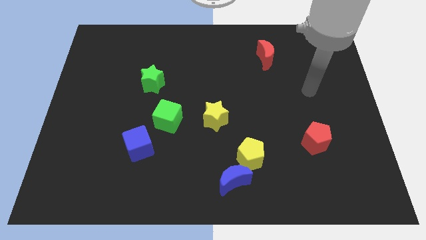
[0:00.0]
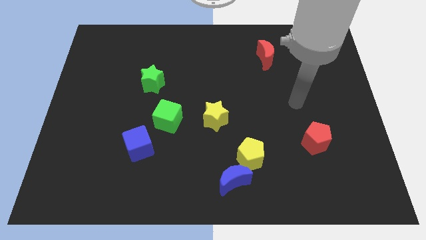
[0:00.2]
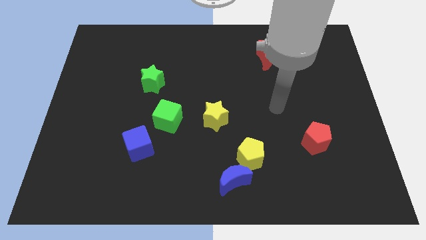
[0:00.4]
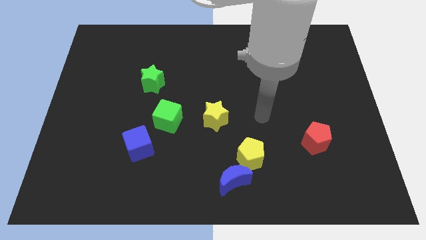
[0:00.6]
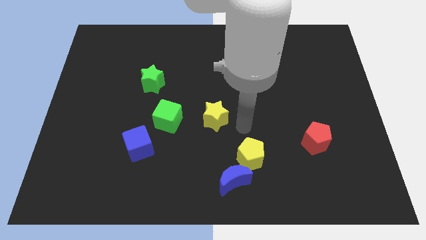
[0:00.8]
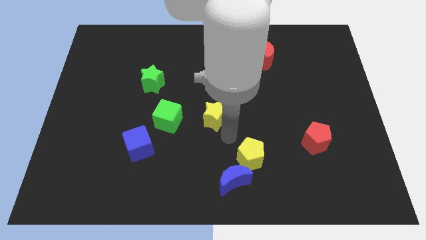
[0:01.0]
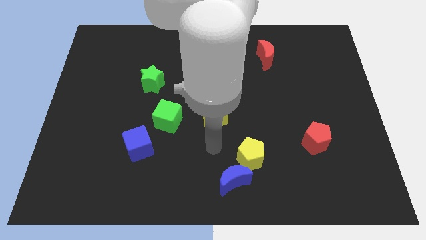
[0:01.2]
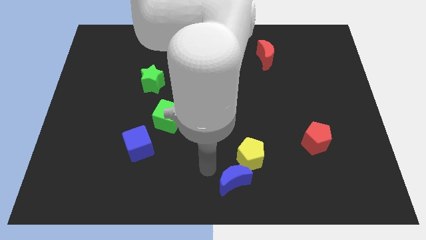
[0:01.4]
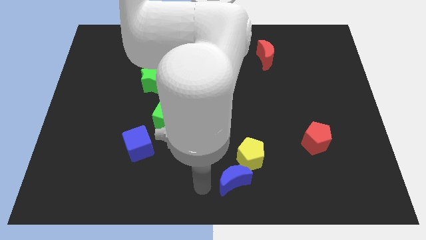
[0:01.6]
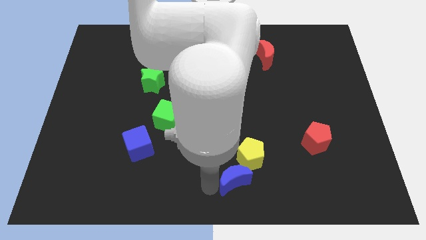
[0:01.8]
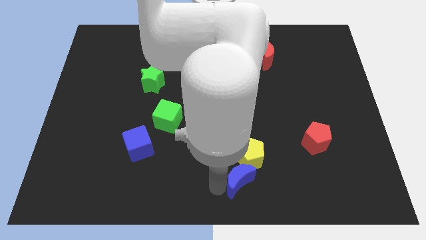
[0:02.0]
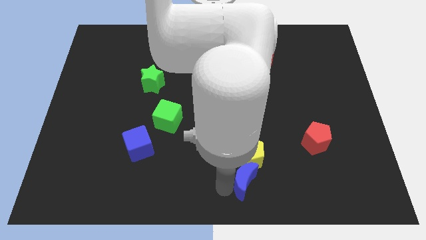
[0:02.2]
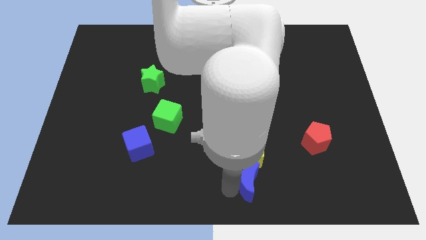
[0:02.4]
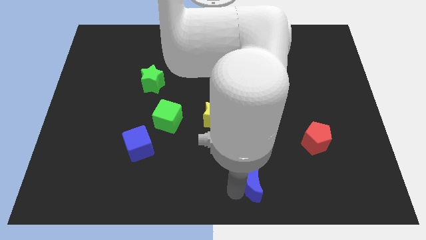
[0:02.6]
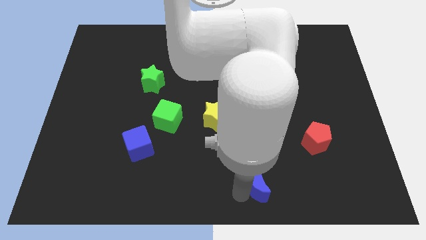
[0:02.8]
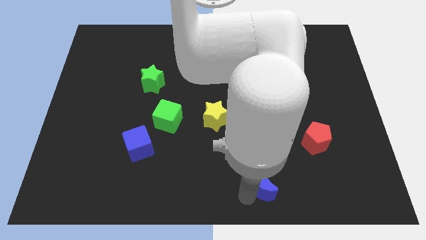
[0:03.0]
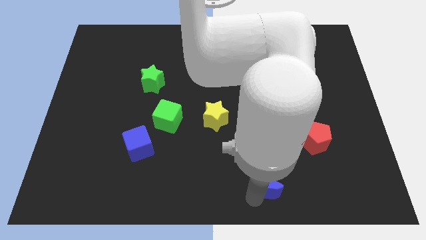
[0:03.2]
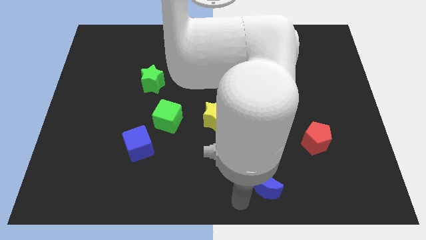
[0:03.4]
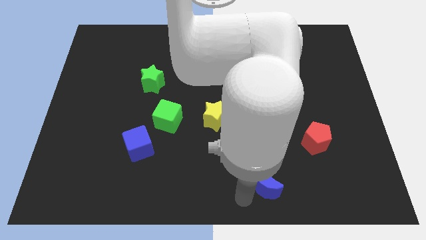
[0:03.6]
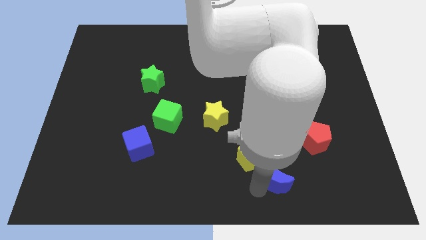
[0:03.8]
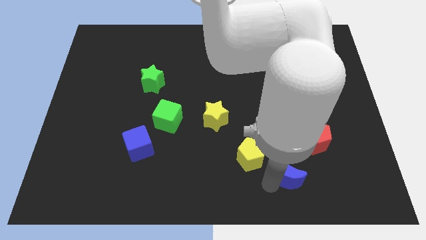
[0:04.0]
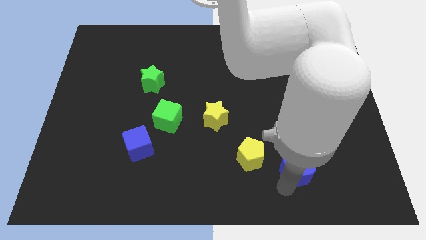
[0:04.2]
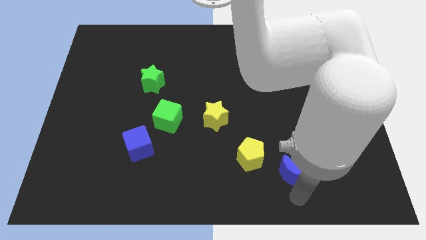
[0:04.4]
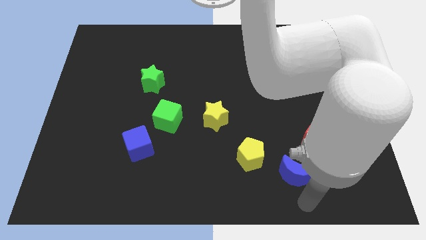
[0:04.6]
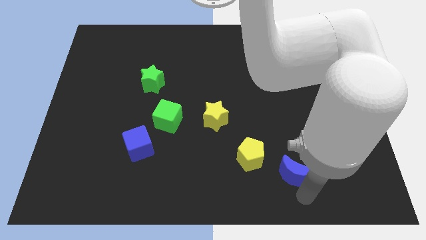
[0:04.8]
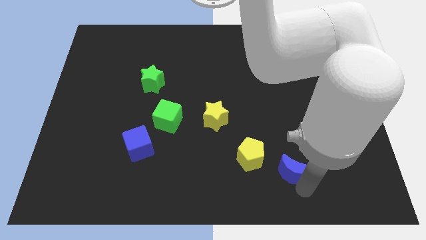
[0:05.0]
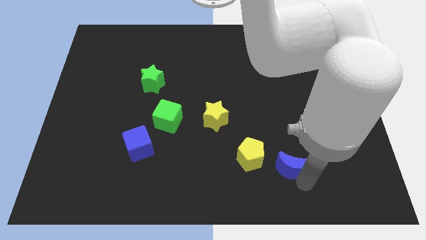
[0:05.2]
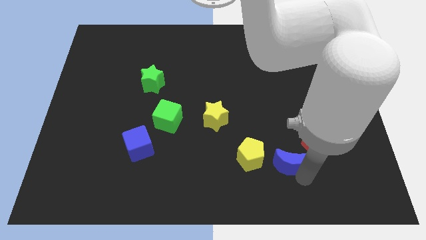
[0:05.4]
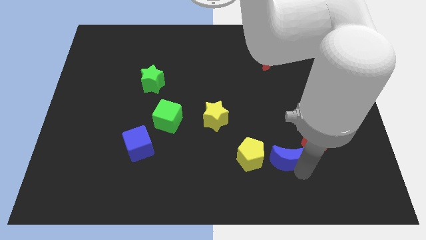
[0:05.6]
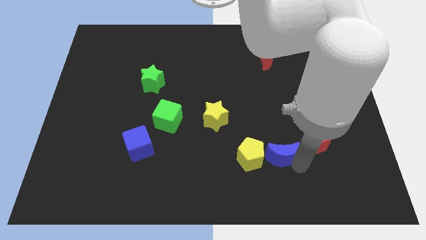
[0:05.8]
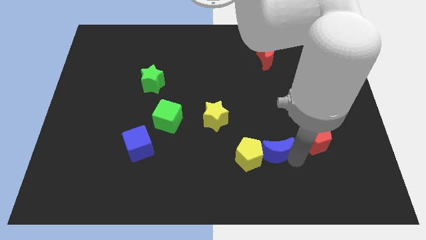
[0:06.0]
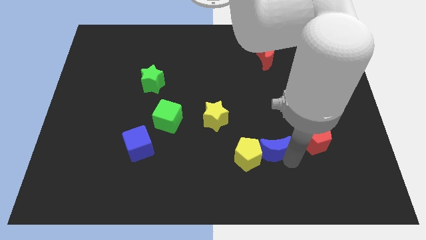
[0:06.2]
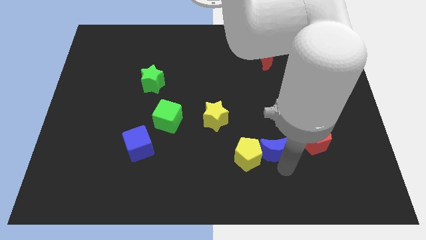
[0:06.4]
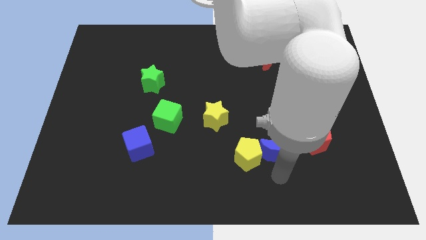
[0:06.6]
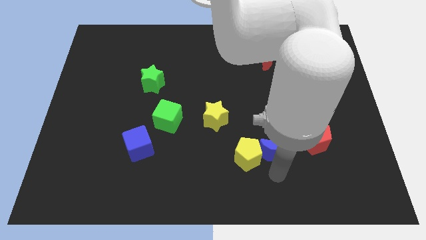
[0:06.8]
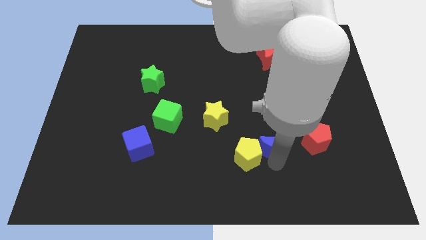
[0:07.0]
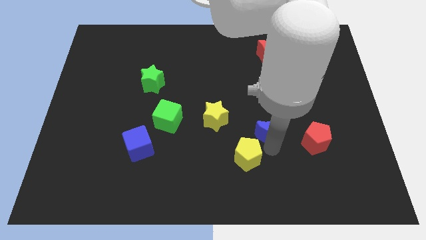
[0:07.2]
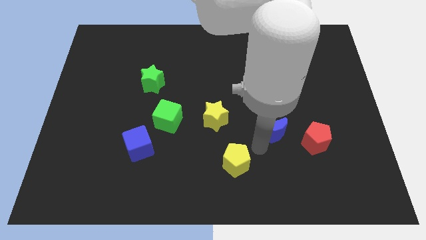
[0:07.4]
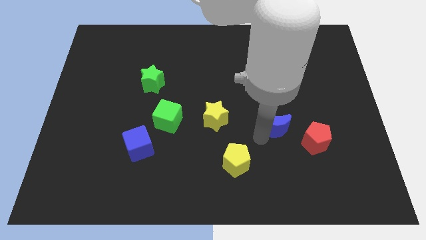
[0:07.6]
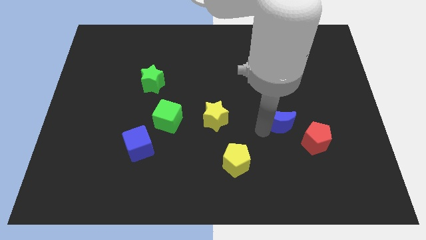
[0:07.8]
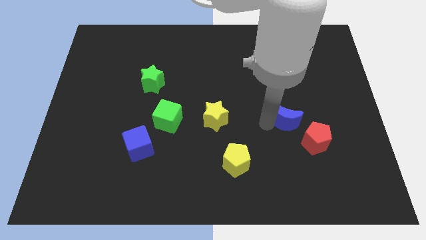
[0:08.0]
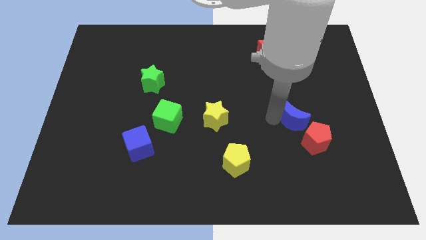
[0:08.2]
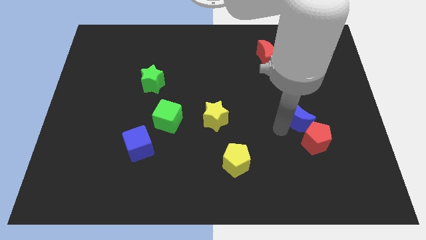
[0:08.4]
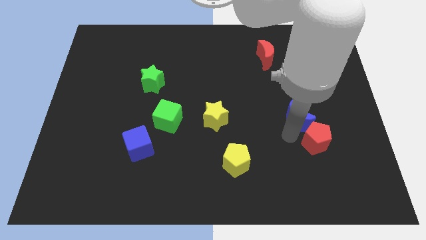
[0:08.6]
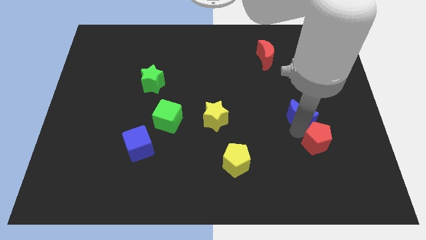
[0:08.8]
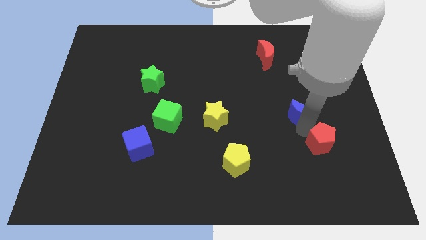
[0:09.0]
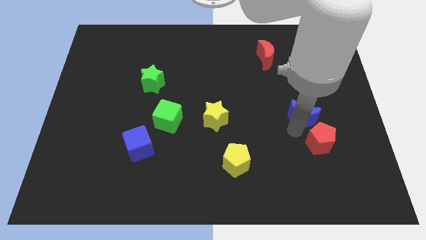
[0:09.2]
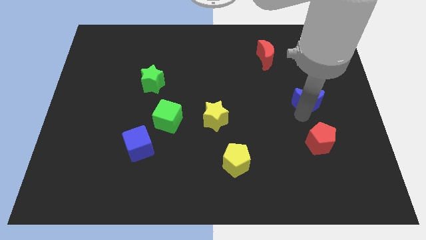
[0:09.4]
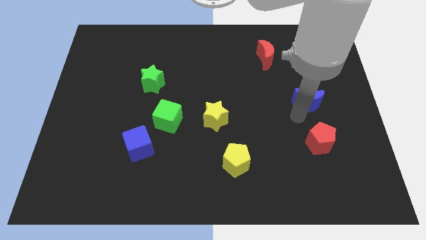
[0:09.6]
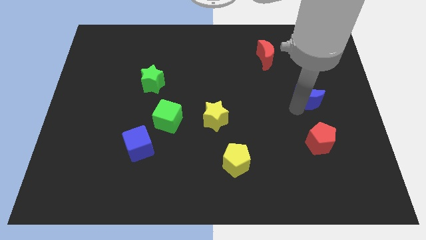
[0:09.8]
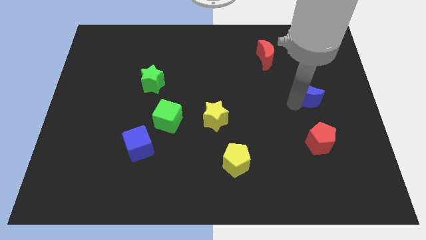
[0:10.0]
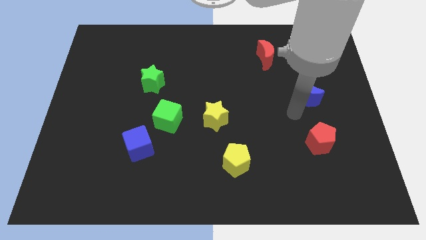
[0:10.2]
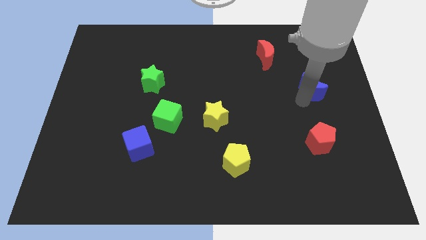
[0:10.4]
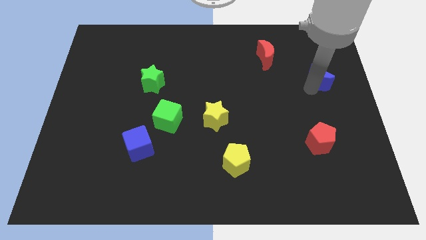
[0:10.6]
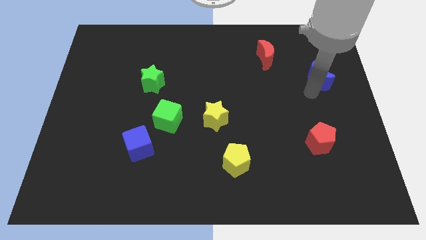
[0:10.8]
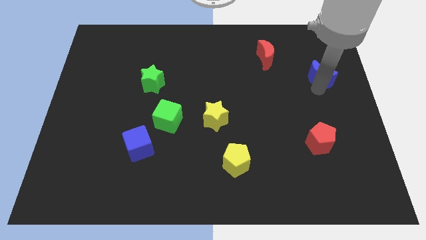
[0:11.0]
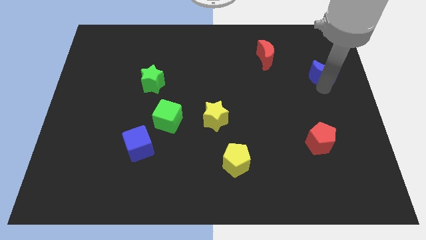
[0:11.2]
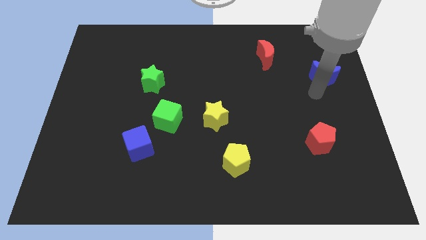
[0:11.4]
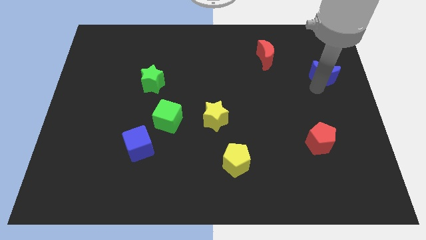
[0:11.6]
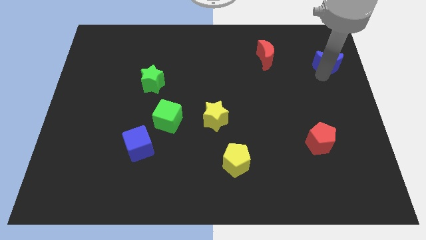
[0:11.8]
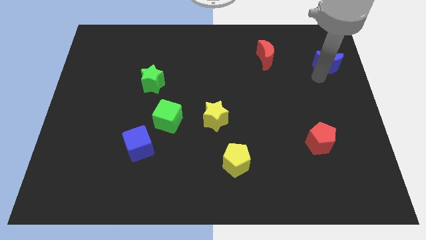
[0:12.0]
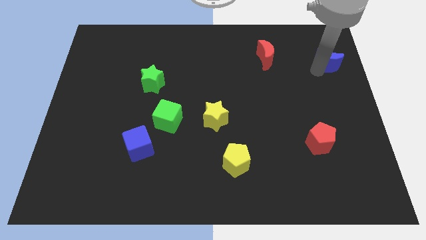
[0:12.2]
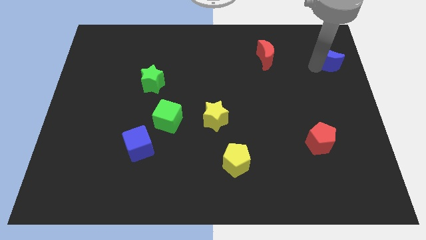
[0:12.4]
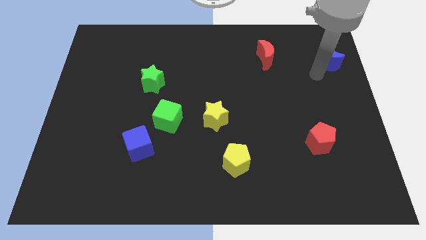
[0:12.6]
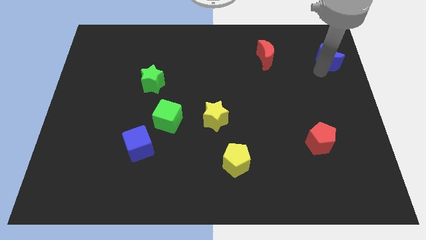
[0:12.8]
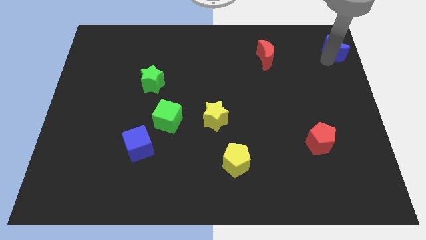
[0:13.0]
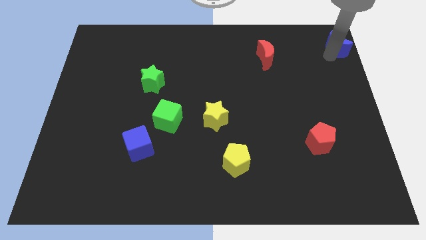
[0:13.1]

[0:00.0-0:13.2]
put the blue moon to the top right
